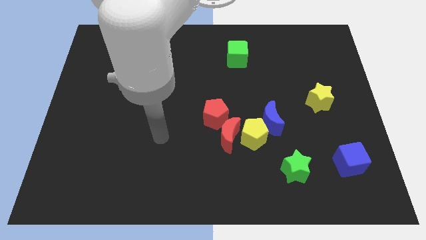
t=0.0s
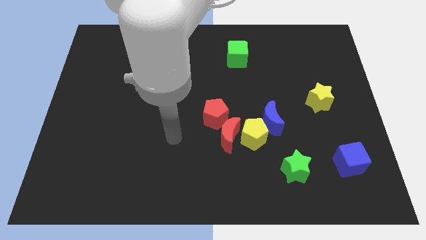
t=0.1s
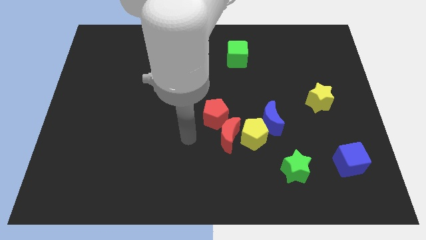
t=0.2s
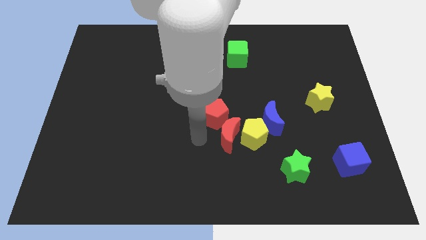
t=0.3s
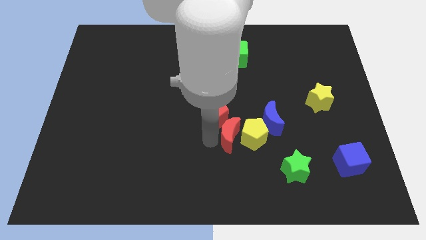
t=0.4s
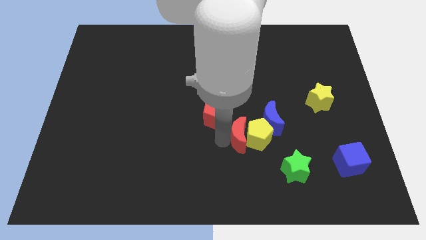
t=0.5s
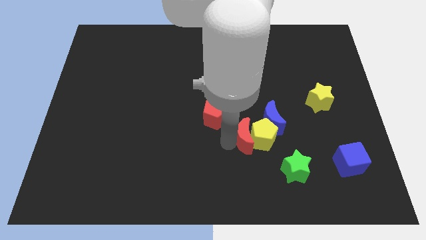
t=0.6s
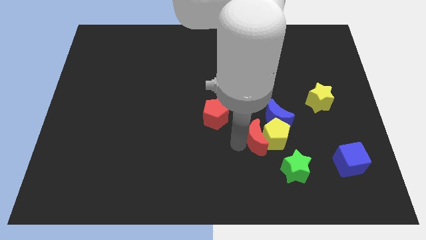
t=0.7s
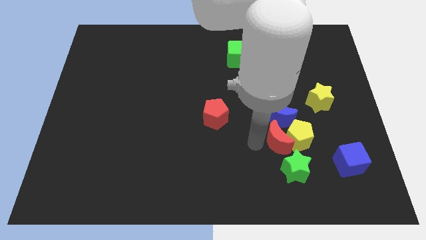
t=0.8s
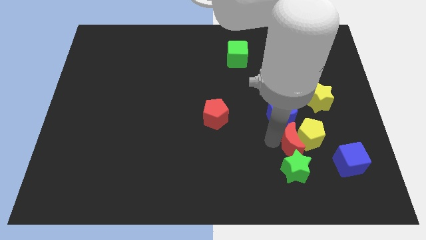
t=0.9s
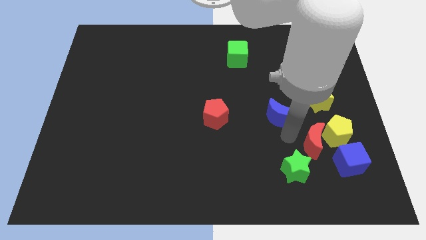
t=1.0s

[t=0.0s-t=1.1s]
pull the blue moon apart from the yellow pentagon

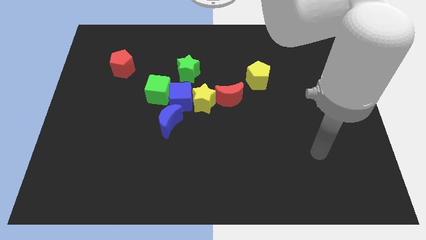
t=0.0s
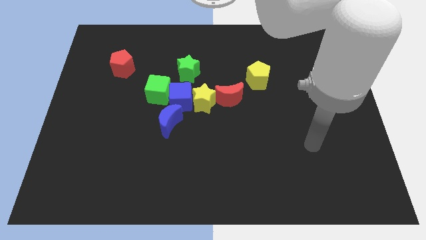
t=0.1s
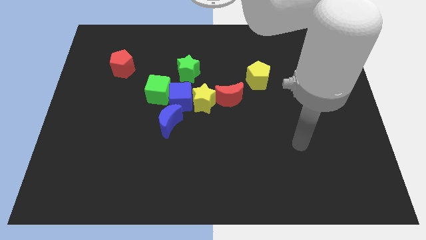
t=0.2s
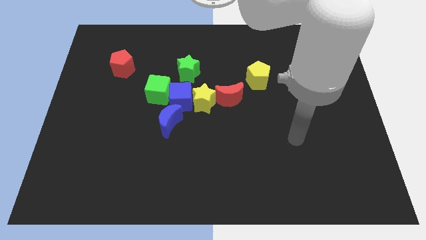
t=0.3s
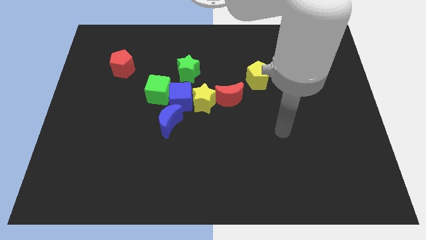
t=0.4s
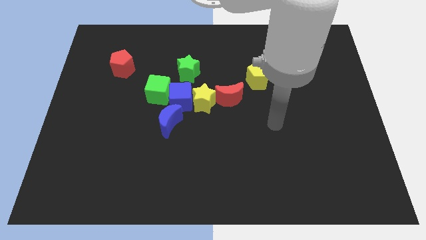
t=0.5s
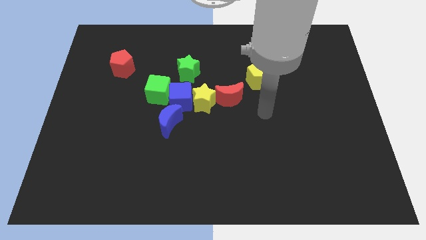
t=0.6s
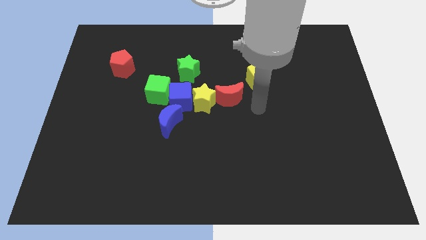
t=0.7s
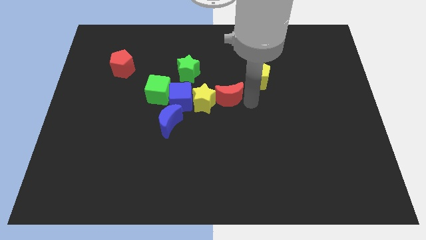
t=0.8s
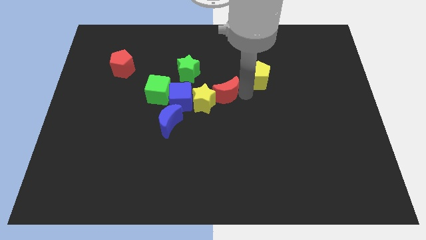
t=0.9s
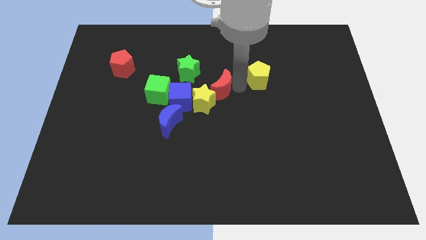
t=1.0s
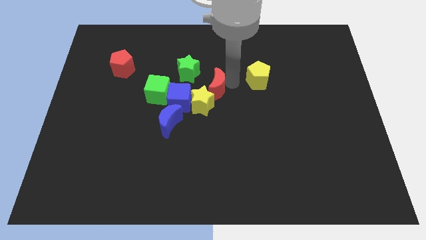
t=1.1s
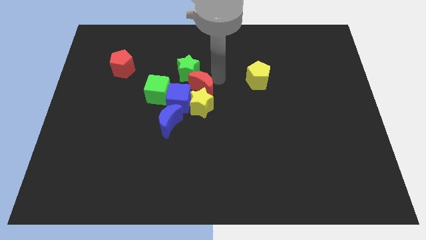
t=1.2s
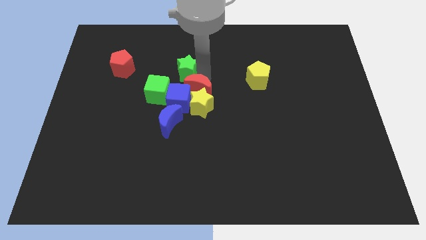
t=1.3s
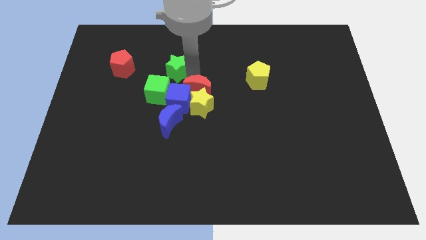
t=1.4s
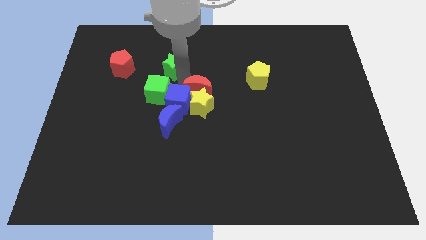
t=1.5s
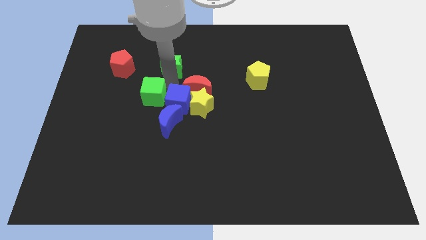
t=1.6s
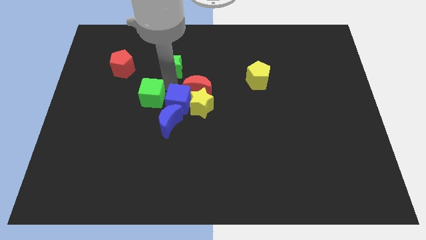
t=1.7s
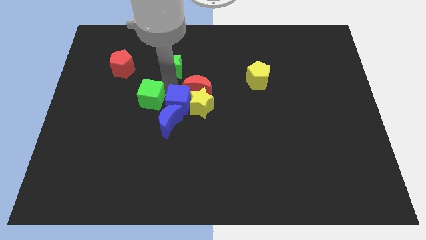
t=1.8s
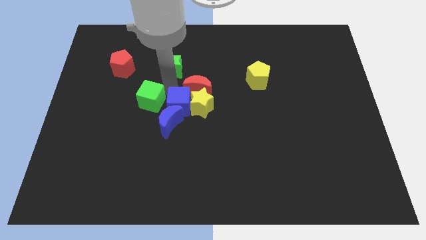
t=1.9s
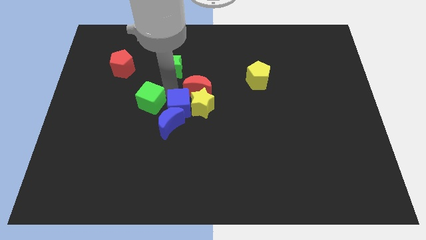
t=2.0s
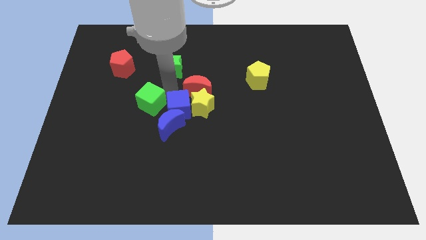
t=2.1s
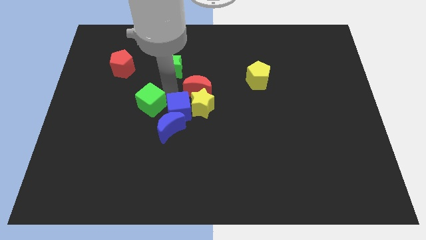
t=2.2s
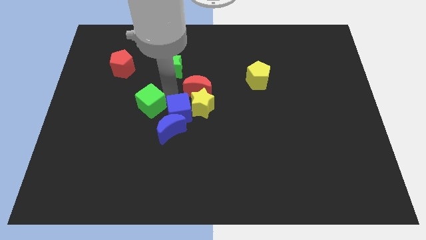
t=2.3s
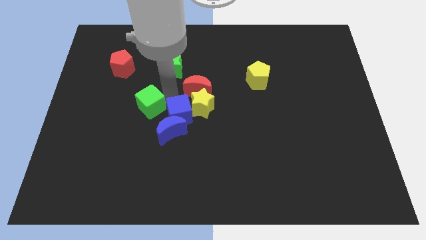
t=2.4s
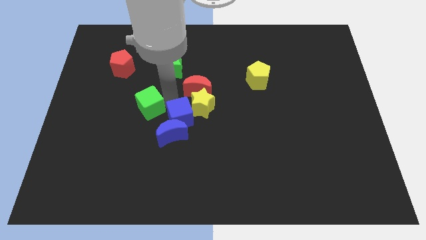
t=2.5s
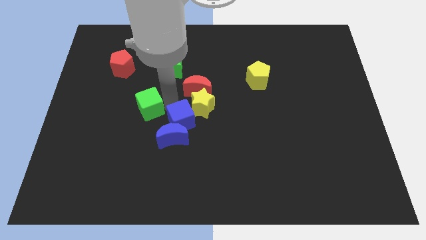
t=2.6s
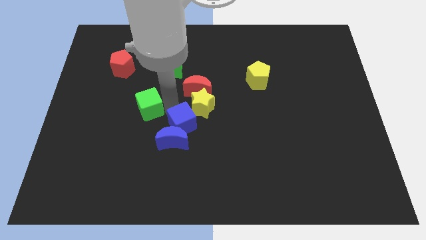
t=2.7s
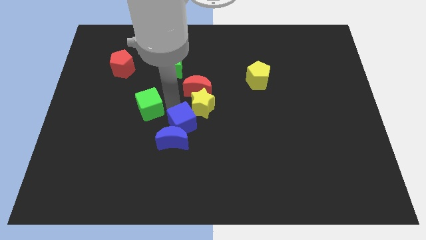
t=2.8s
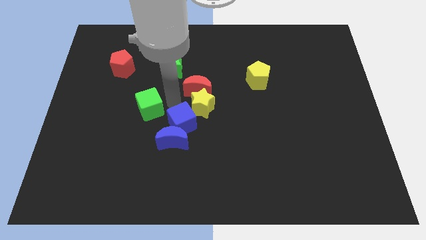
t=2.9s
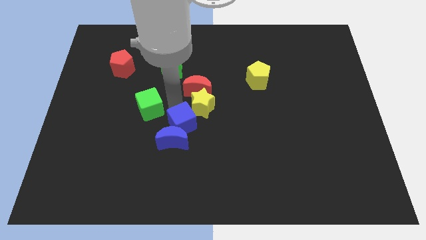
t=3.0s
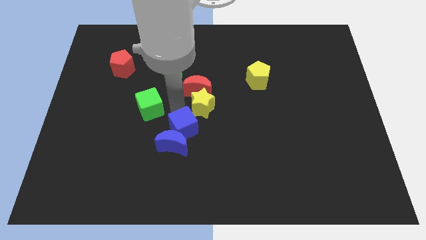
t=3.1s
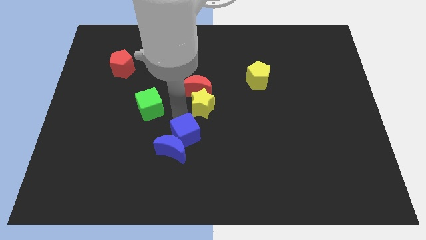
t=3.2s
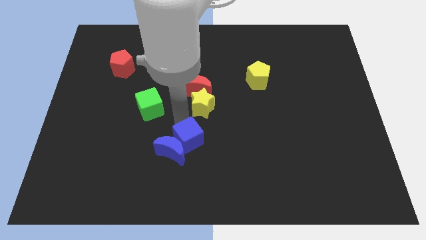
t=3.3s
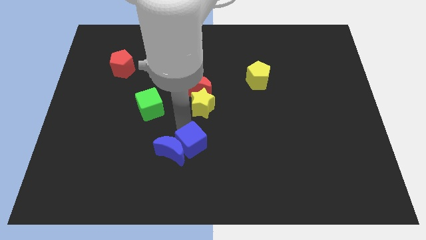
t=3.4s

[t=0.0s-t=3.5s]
pull the blue cube apart from the group

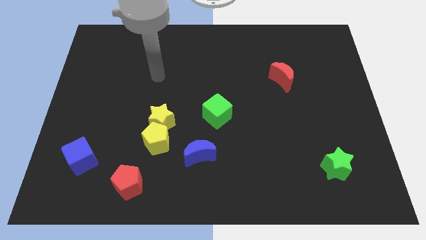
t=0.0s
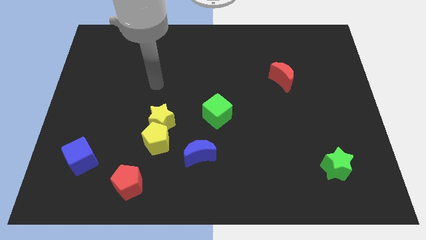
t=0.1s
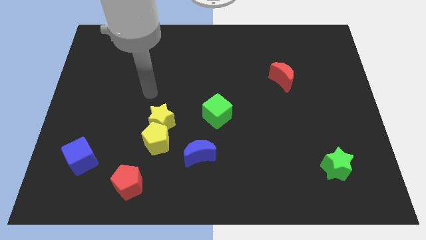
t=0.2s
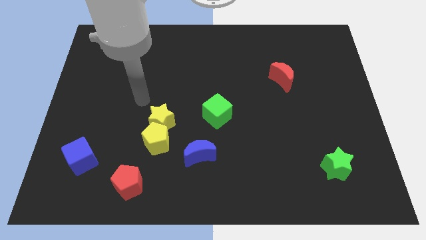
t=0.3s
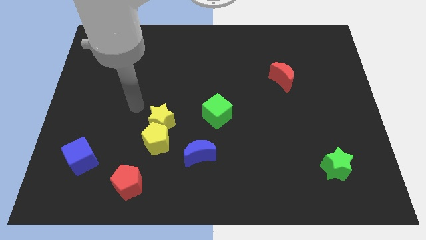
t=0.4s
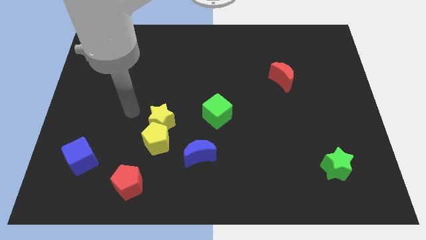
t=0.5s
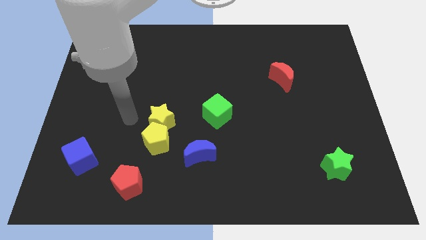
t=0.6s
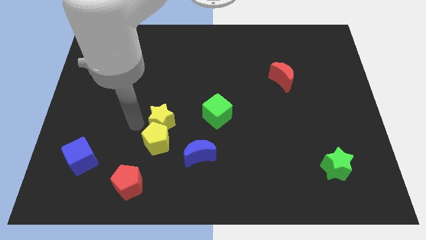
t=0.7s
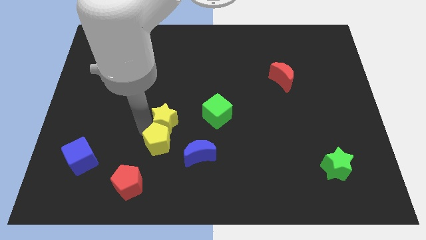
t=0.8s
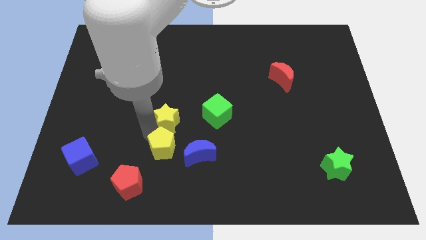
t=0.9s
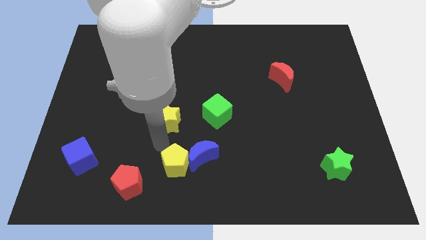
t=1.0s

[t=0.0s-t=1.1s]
move the yellow star away from the yellow pentagon

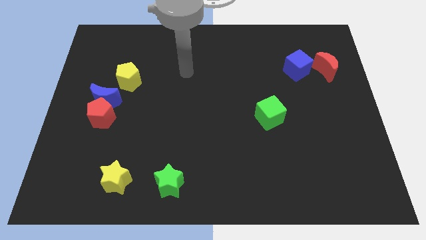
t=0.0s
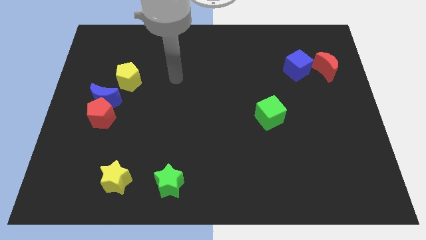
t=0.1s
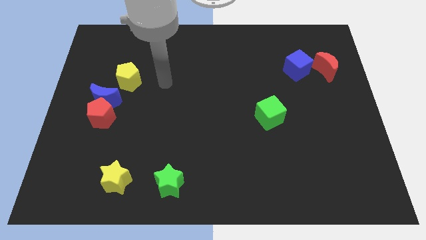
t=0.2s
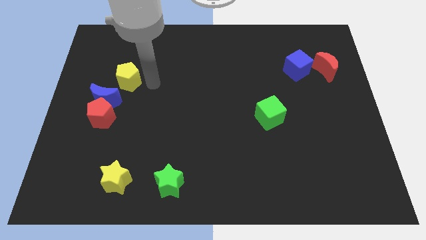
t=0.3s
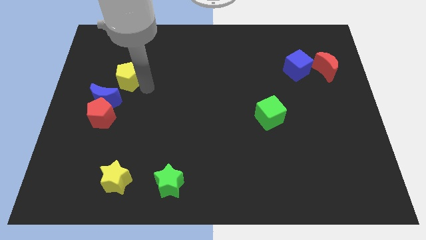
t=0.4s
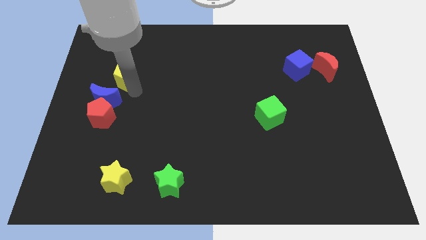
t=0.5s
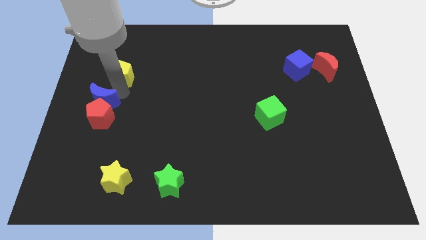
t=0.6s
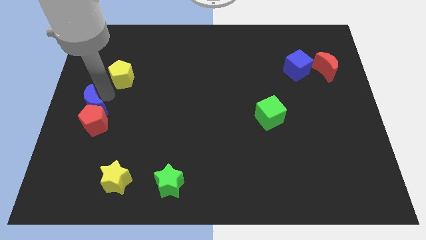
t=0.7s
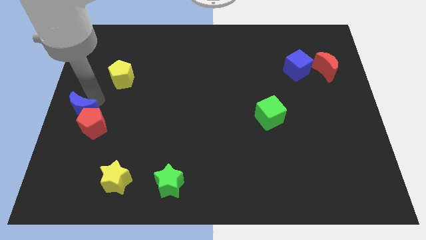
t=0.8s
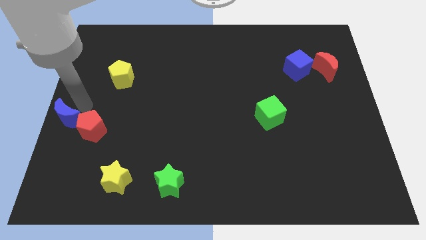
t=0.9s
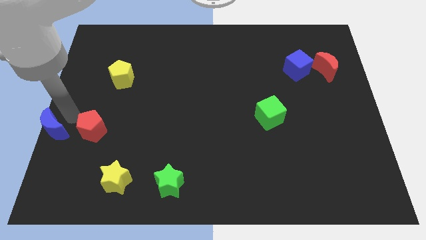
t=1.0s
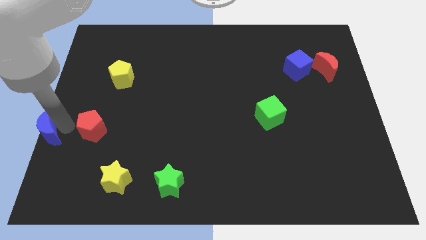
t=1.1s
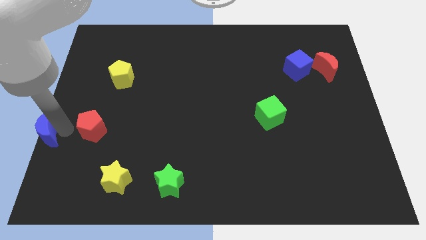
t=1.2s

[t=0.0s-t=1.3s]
move the red pentagon away from the blue moon

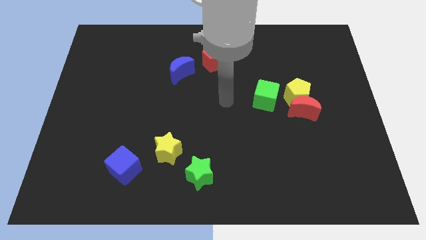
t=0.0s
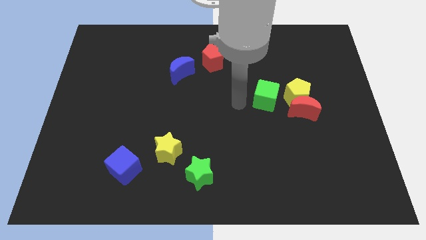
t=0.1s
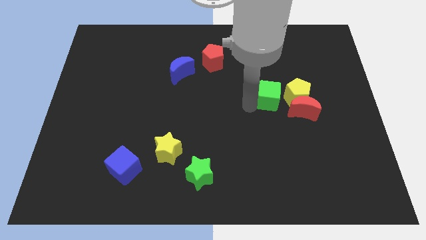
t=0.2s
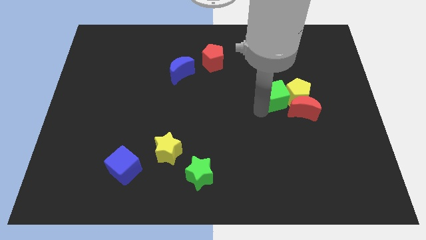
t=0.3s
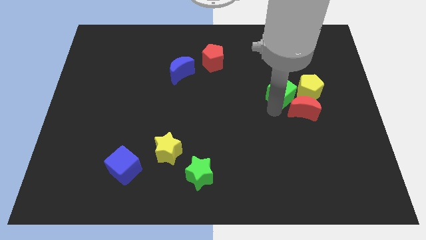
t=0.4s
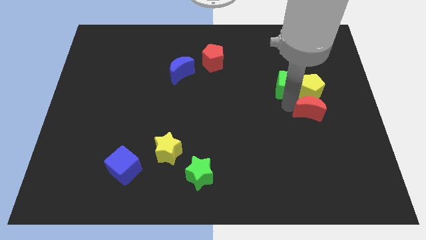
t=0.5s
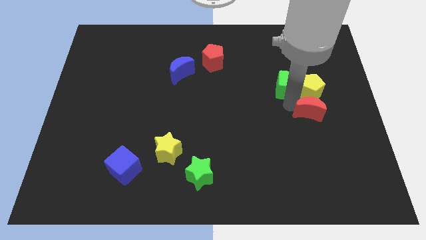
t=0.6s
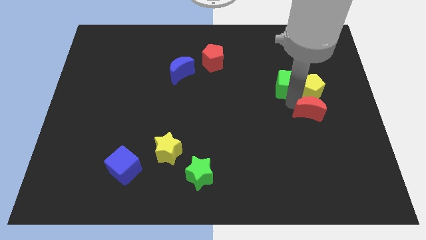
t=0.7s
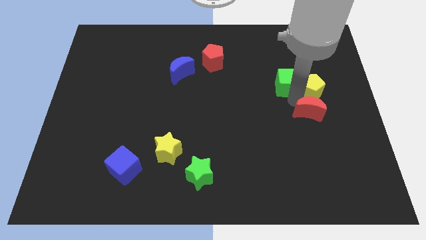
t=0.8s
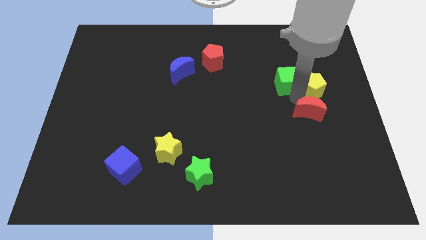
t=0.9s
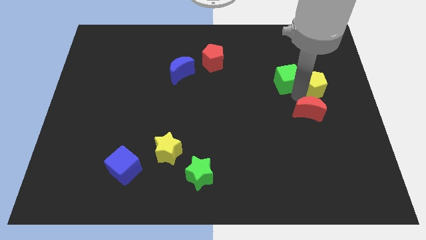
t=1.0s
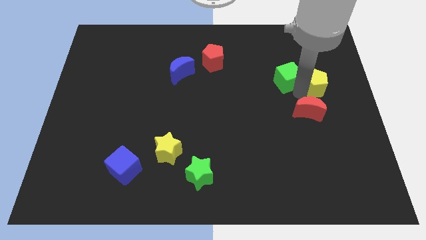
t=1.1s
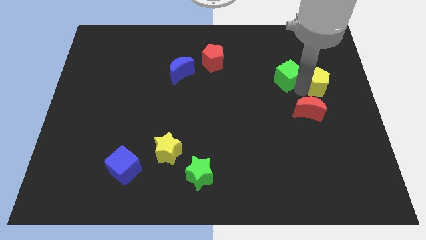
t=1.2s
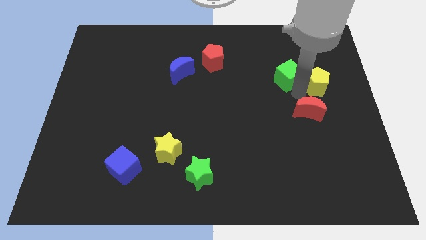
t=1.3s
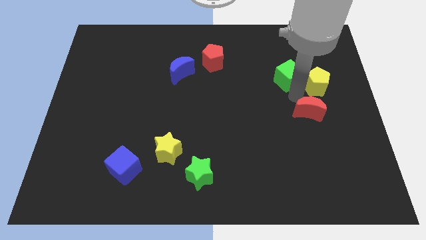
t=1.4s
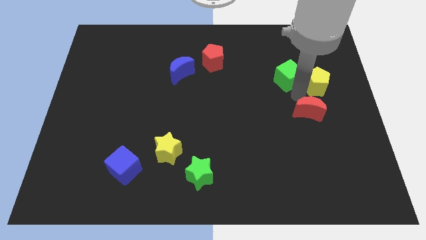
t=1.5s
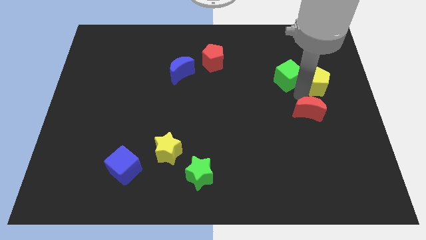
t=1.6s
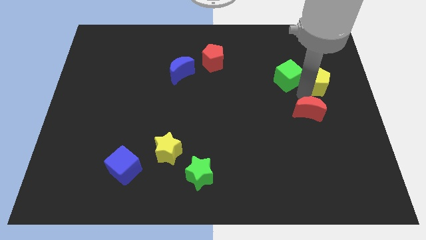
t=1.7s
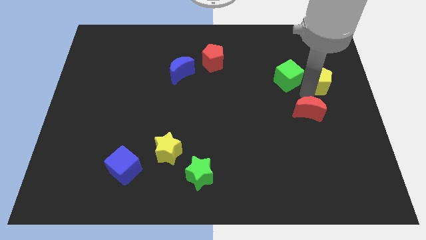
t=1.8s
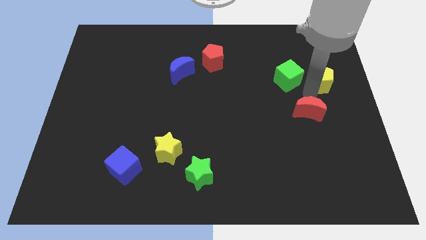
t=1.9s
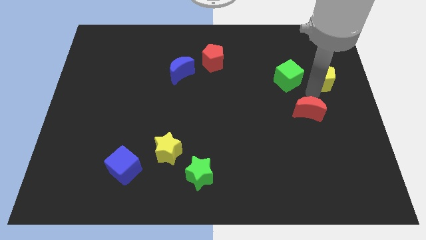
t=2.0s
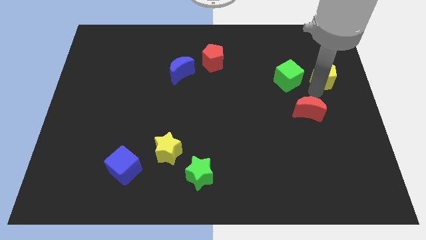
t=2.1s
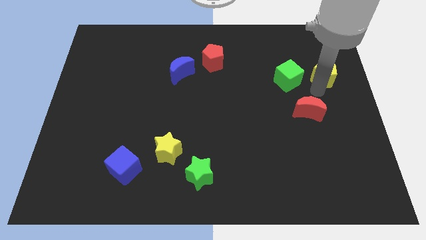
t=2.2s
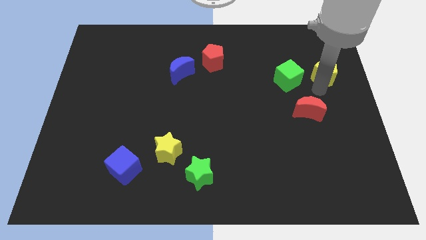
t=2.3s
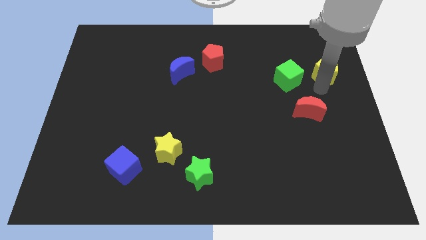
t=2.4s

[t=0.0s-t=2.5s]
pull the yellow pentagon apart from the red moon and green cube
